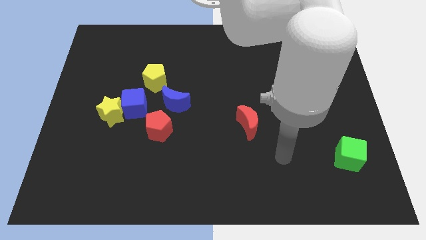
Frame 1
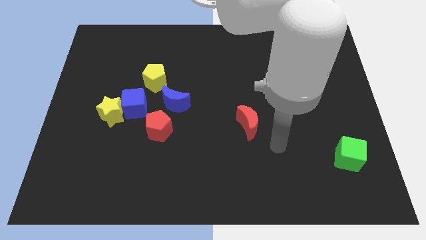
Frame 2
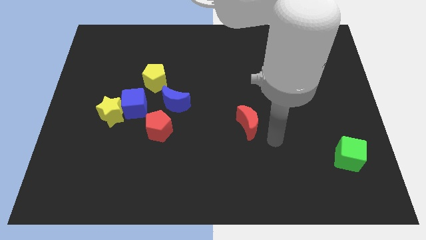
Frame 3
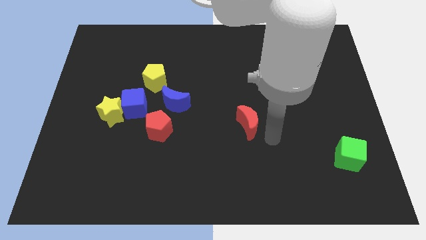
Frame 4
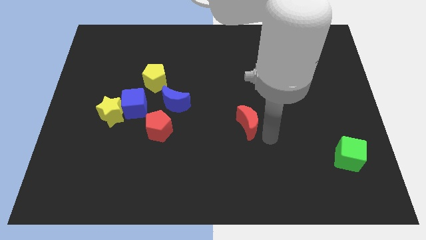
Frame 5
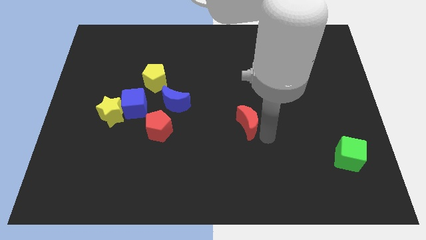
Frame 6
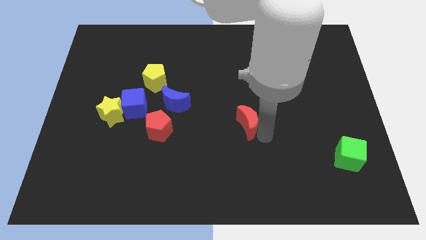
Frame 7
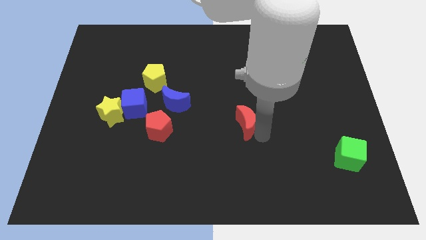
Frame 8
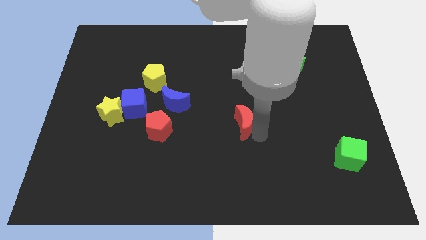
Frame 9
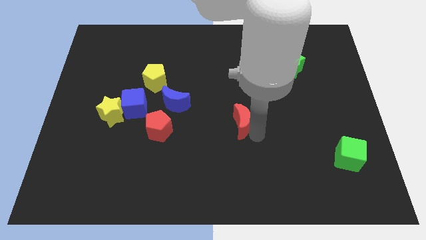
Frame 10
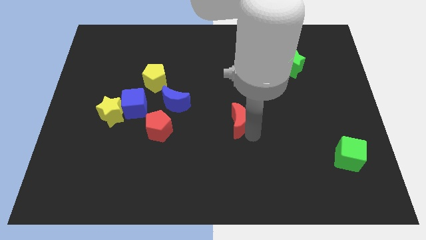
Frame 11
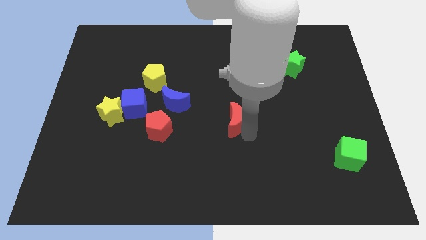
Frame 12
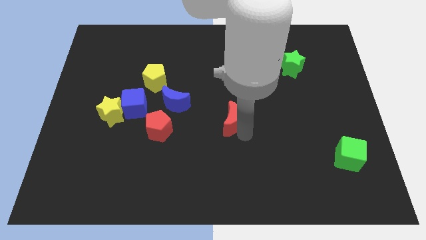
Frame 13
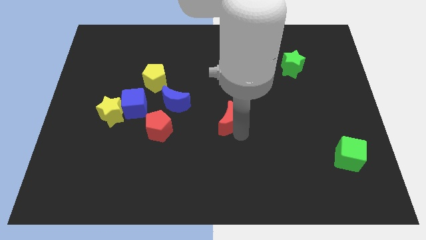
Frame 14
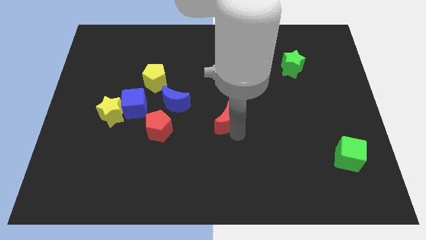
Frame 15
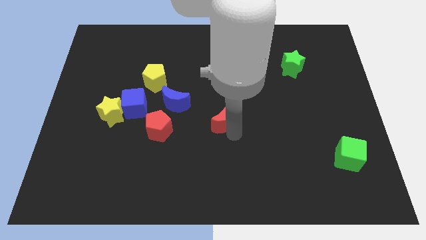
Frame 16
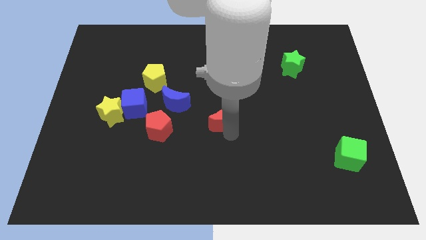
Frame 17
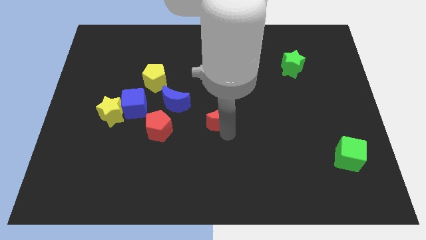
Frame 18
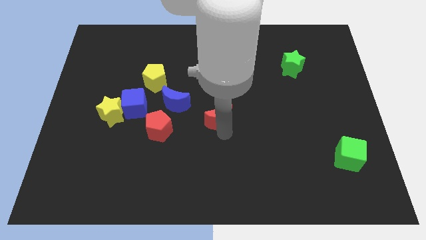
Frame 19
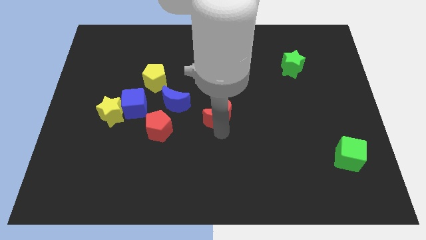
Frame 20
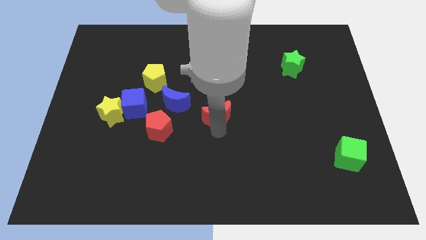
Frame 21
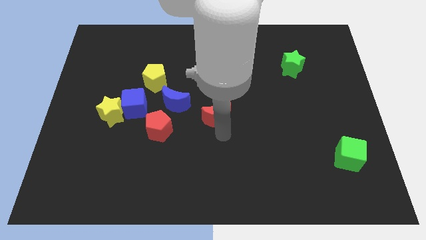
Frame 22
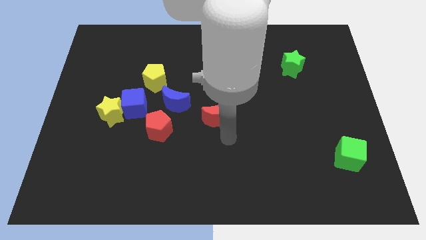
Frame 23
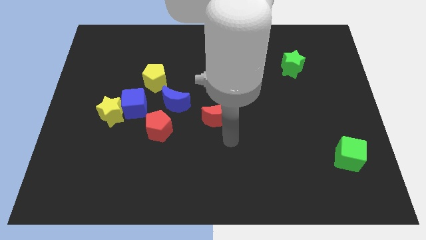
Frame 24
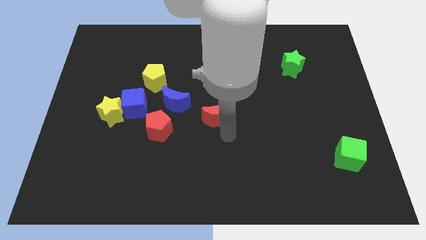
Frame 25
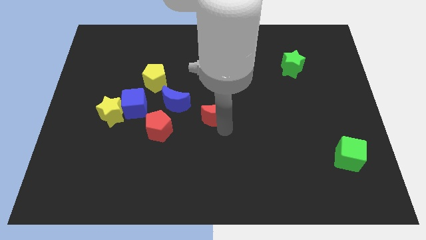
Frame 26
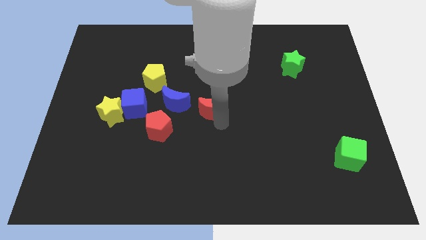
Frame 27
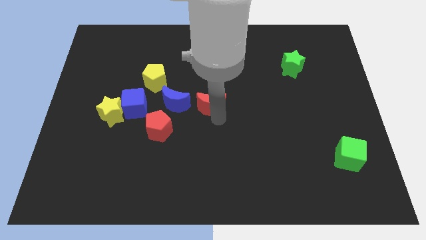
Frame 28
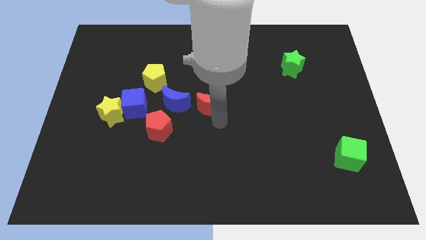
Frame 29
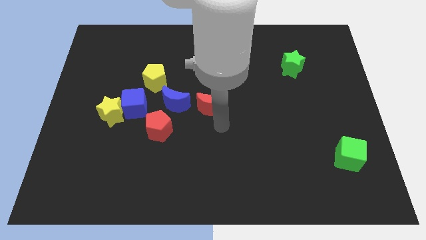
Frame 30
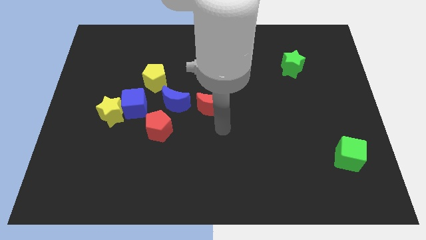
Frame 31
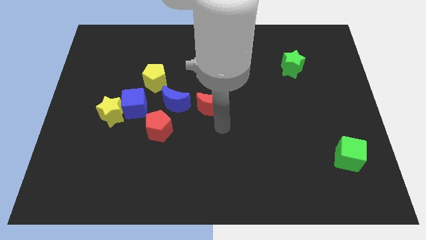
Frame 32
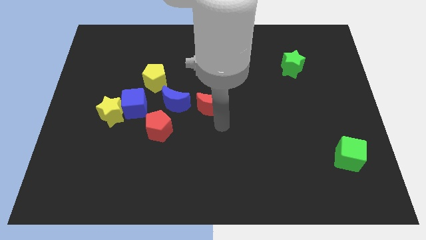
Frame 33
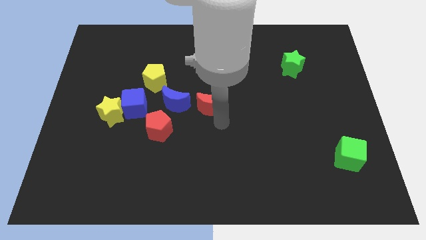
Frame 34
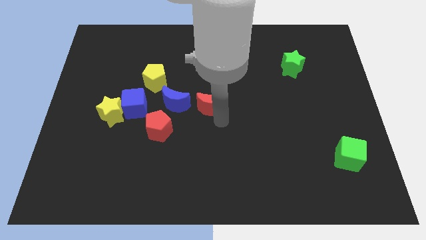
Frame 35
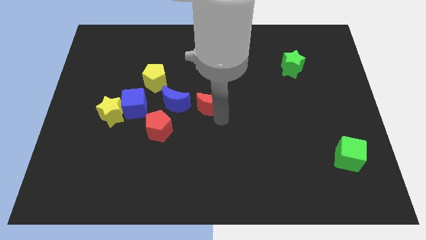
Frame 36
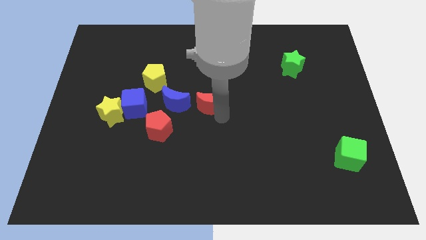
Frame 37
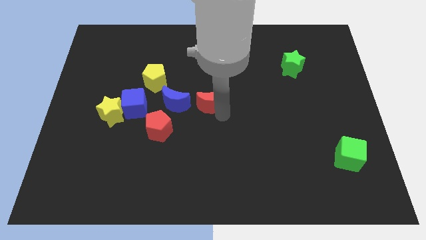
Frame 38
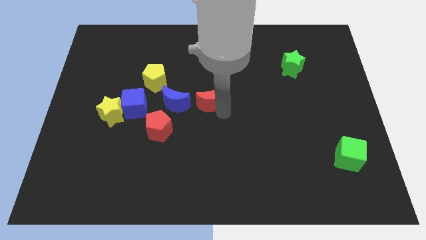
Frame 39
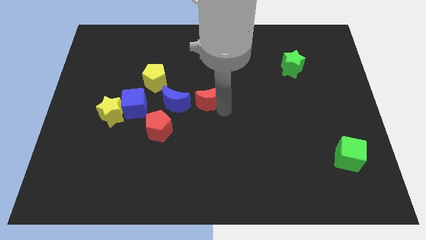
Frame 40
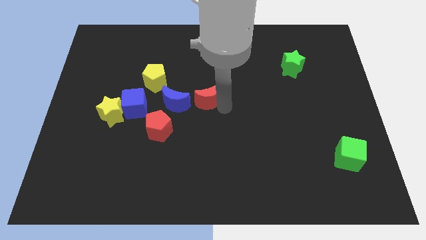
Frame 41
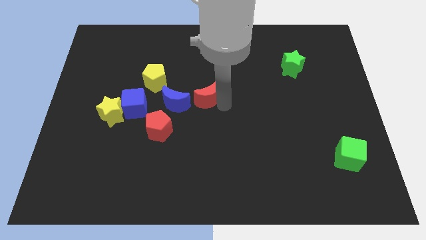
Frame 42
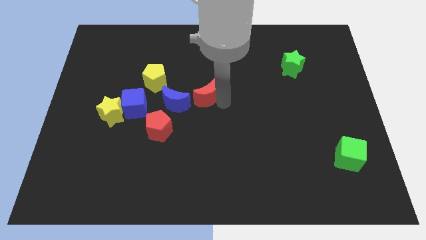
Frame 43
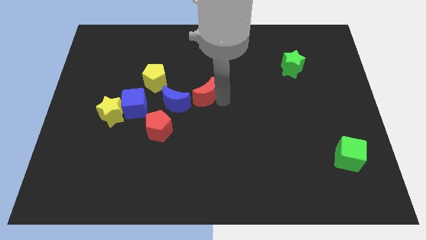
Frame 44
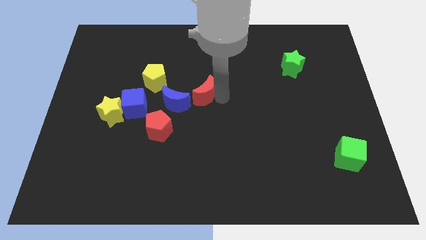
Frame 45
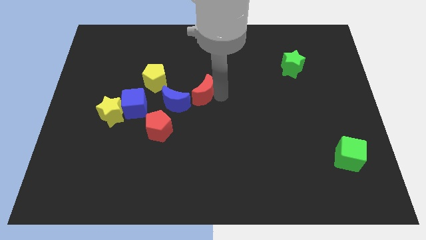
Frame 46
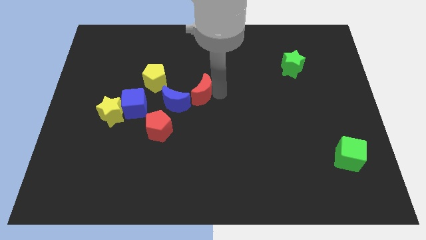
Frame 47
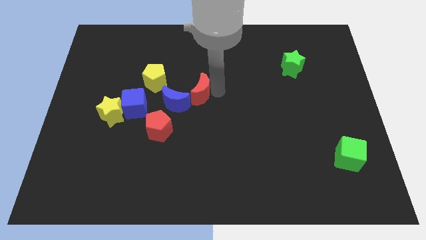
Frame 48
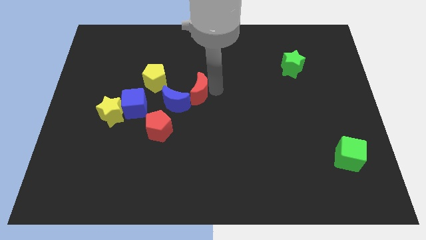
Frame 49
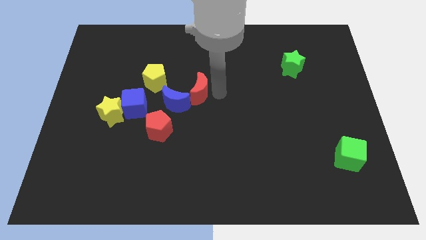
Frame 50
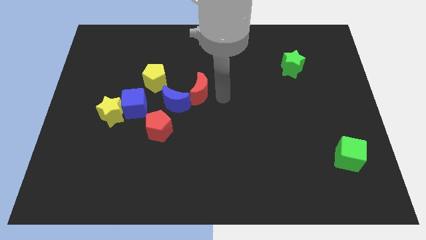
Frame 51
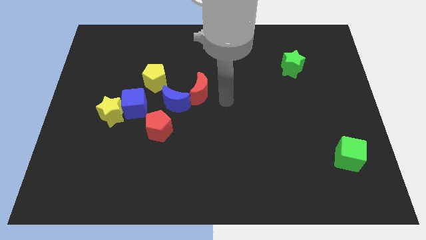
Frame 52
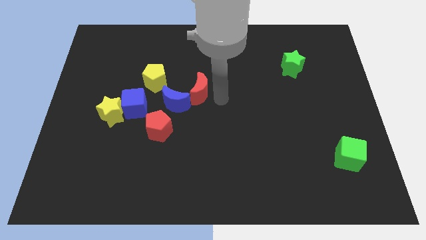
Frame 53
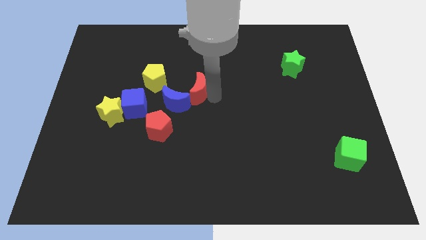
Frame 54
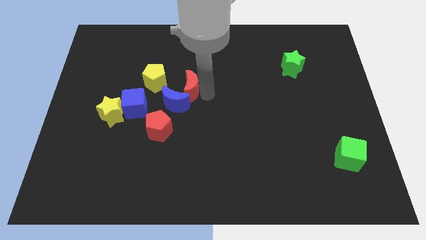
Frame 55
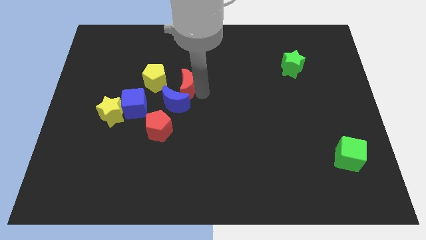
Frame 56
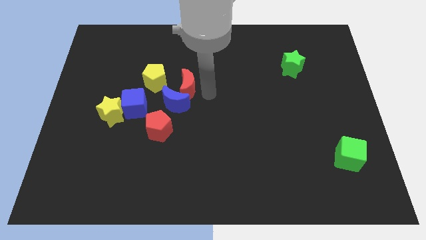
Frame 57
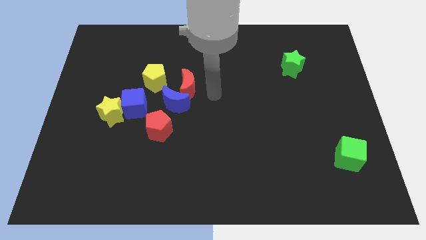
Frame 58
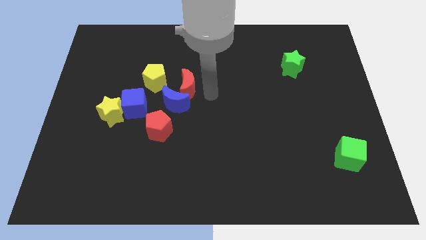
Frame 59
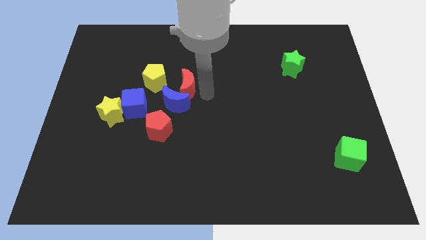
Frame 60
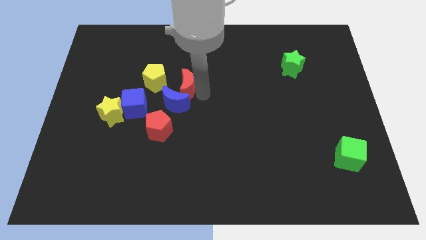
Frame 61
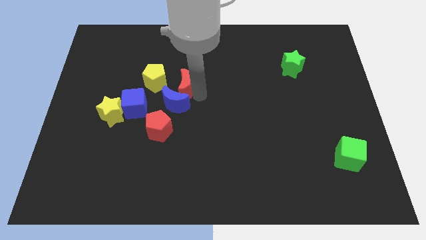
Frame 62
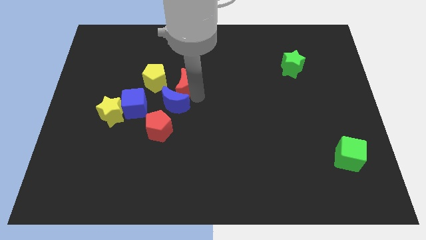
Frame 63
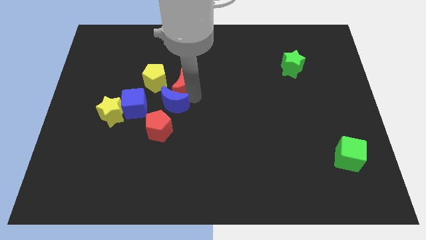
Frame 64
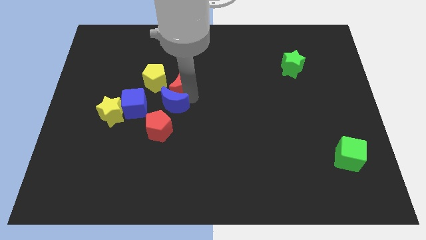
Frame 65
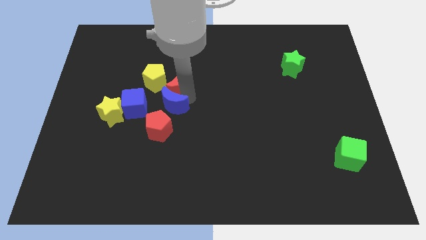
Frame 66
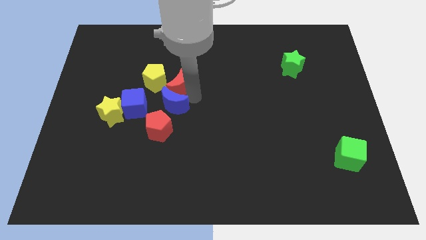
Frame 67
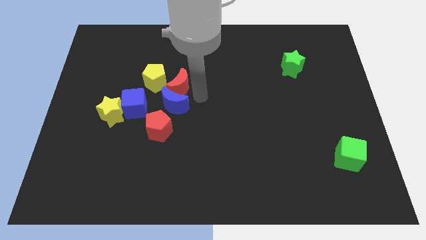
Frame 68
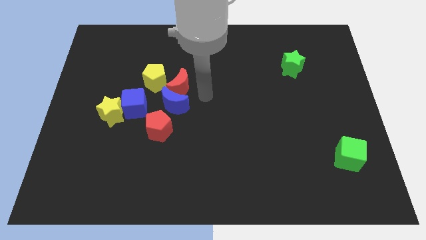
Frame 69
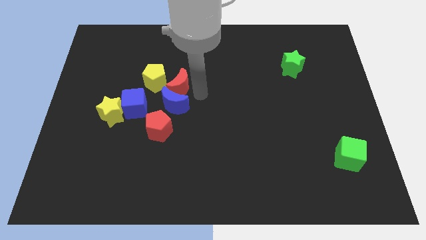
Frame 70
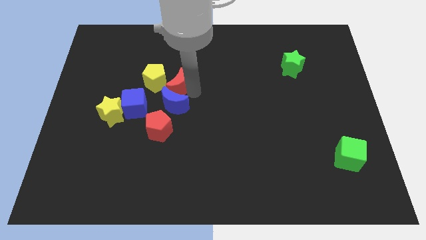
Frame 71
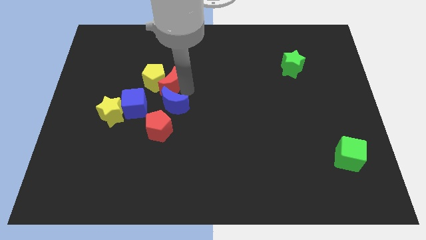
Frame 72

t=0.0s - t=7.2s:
push the red moon next to the yellow pentagon
